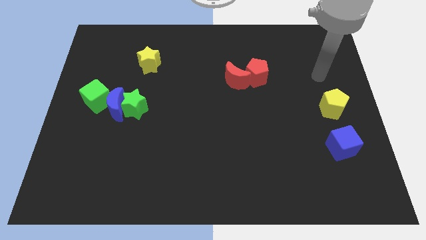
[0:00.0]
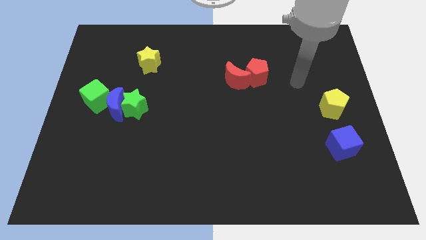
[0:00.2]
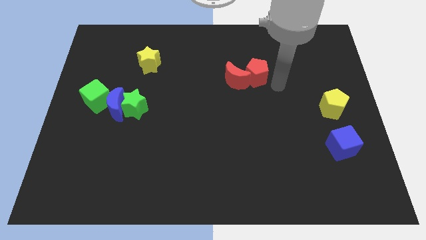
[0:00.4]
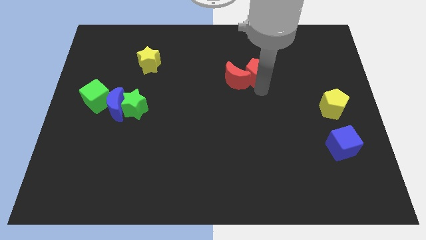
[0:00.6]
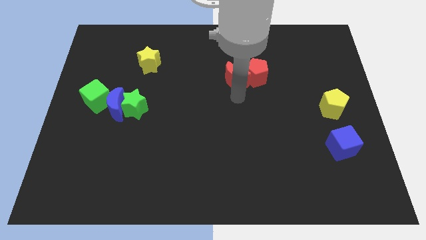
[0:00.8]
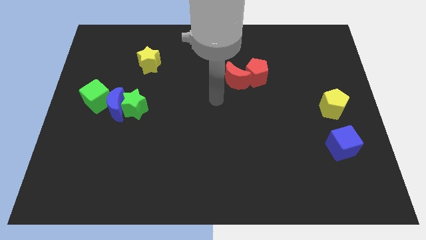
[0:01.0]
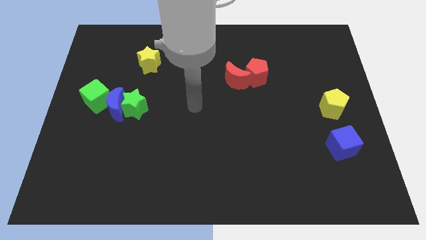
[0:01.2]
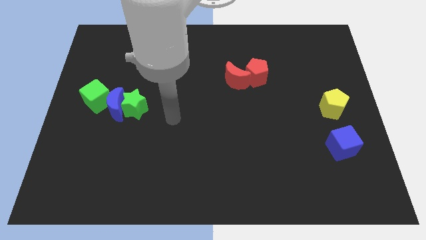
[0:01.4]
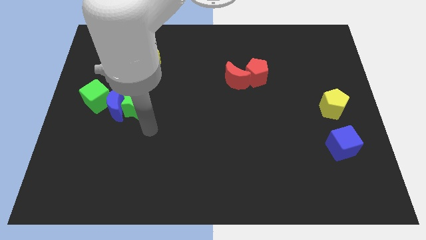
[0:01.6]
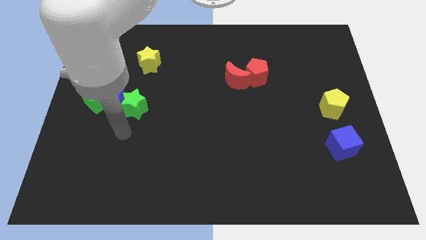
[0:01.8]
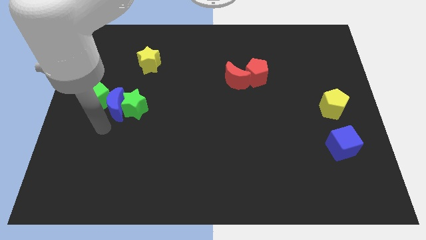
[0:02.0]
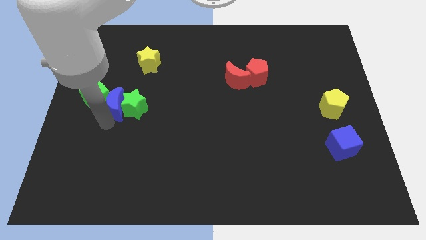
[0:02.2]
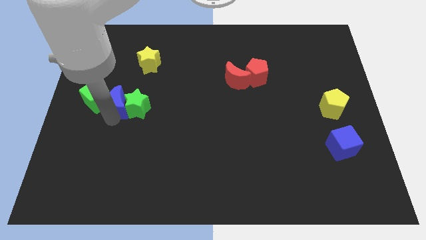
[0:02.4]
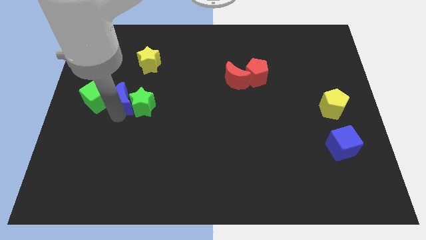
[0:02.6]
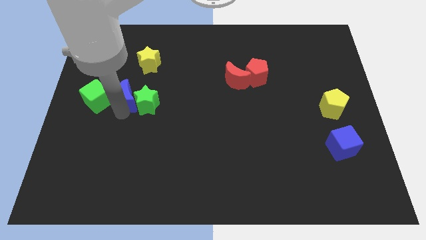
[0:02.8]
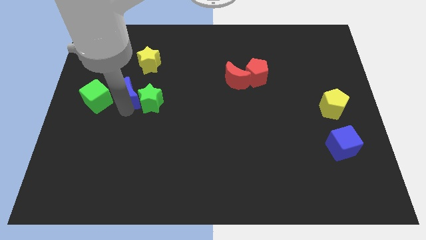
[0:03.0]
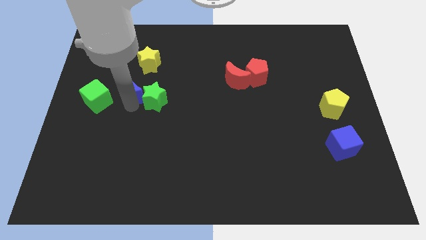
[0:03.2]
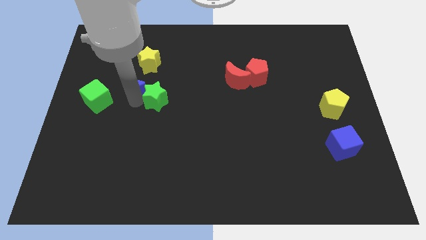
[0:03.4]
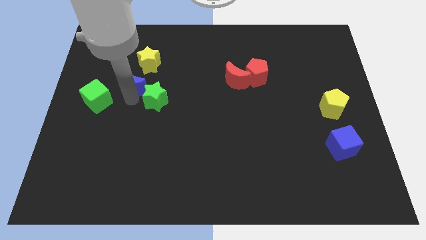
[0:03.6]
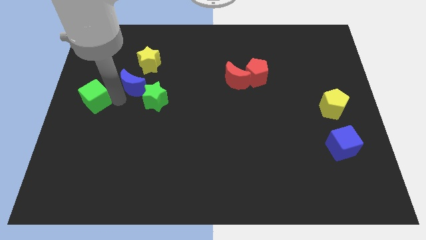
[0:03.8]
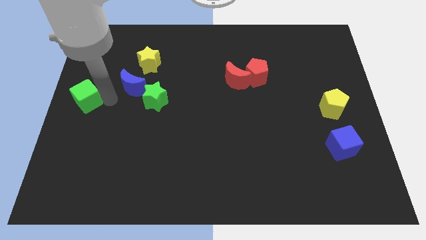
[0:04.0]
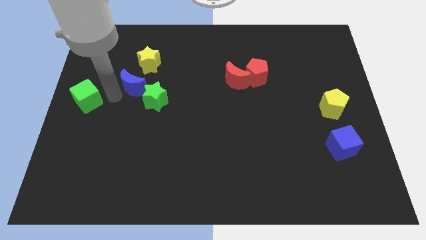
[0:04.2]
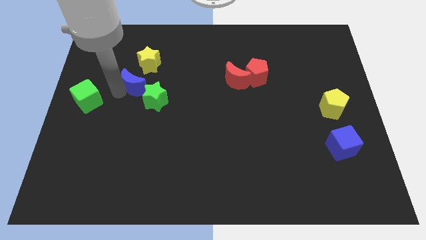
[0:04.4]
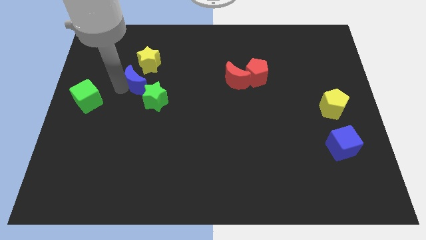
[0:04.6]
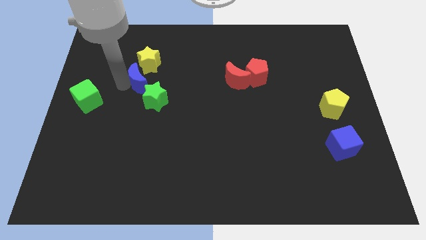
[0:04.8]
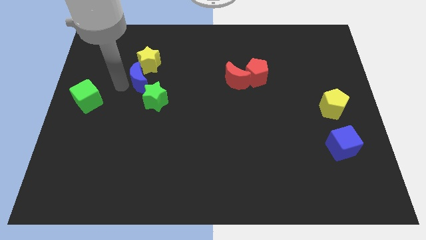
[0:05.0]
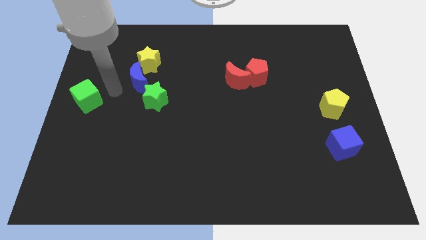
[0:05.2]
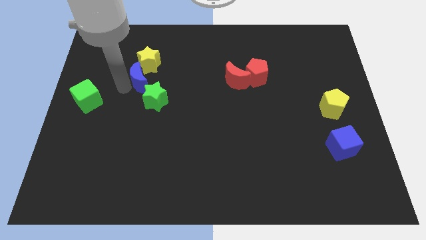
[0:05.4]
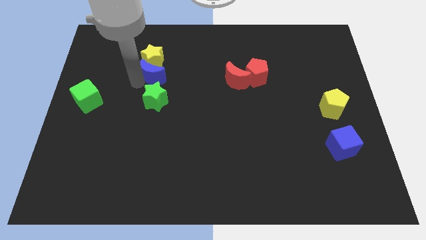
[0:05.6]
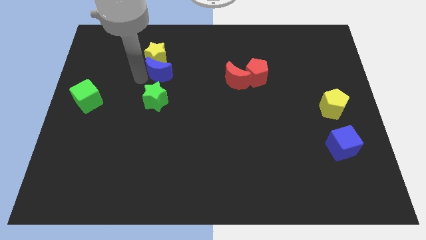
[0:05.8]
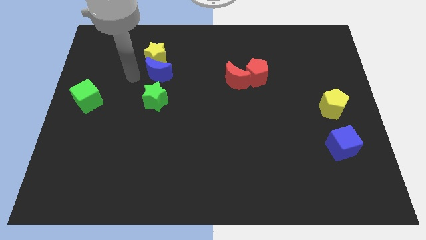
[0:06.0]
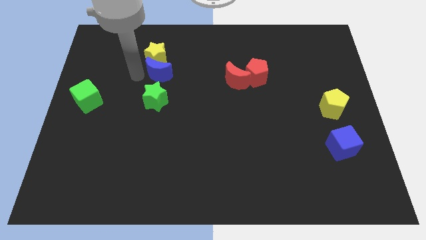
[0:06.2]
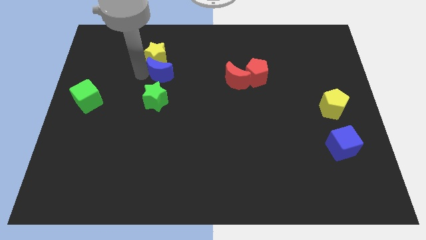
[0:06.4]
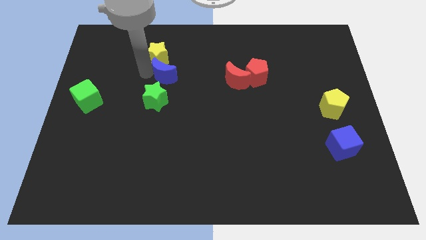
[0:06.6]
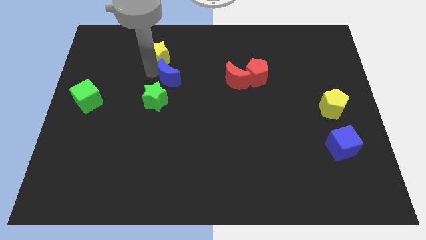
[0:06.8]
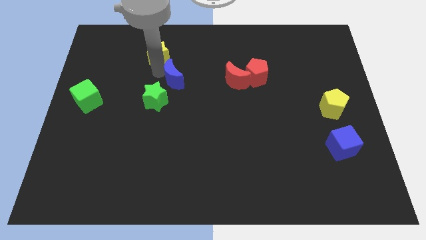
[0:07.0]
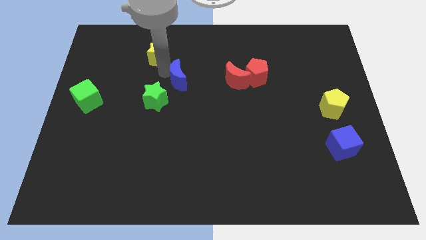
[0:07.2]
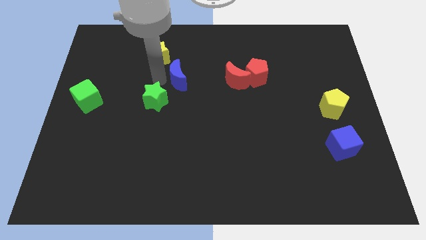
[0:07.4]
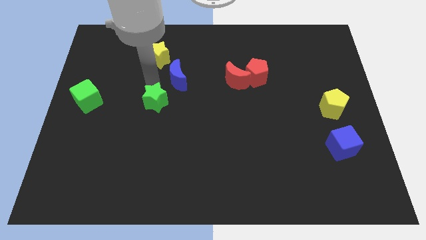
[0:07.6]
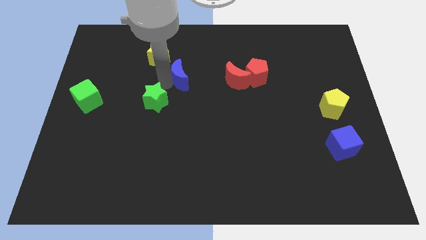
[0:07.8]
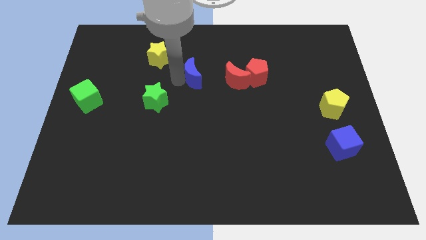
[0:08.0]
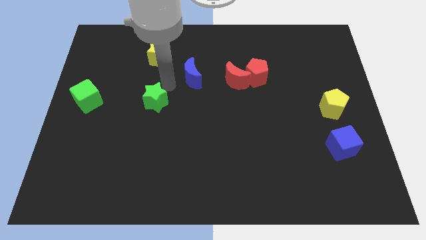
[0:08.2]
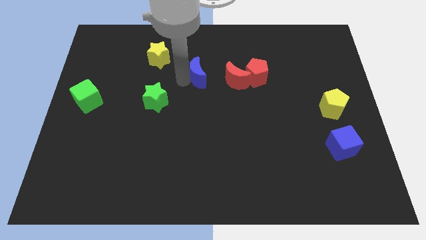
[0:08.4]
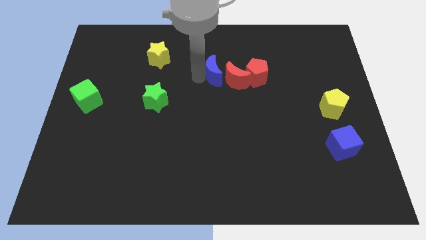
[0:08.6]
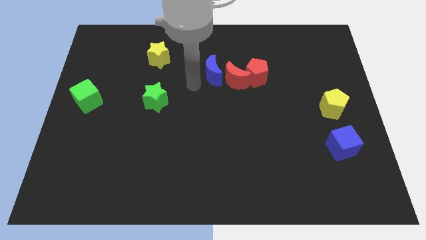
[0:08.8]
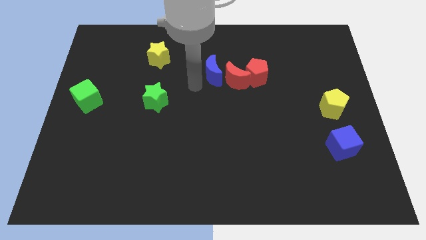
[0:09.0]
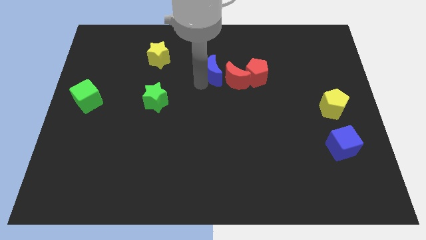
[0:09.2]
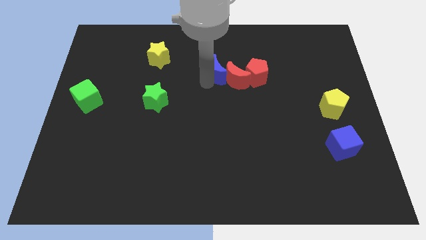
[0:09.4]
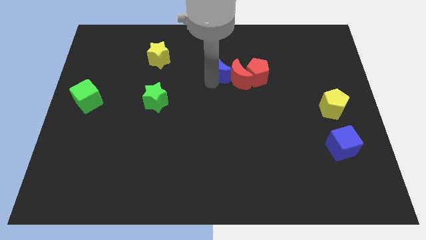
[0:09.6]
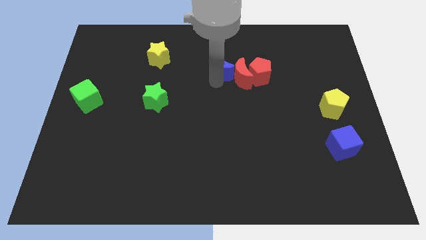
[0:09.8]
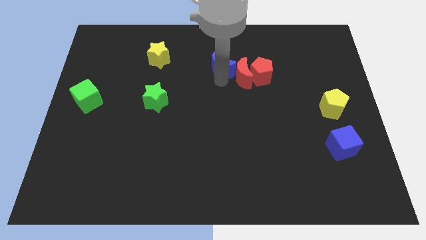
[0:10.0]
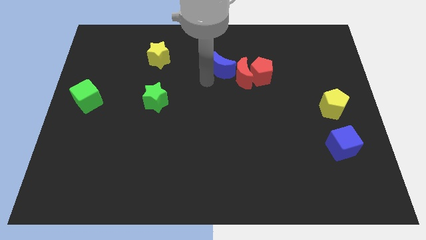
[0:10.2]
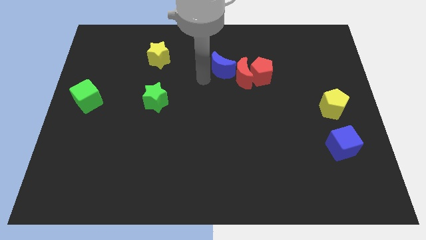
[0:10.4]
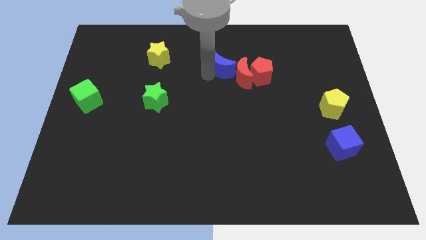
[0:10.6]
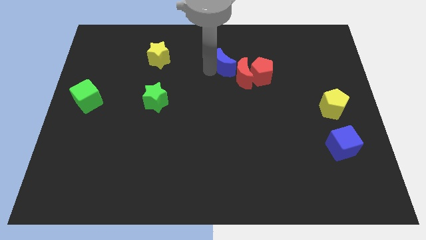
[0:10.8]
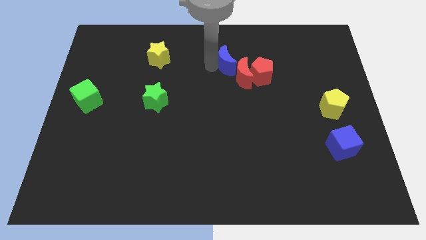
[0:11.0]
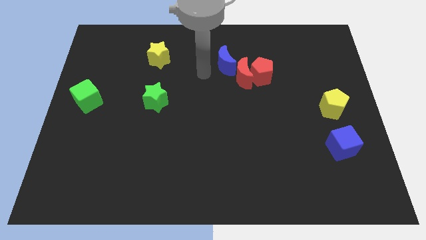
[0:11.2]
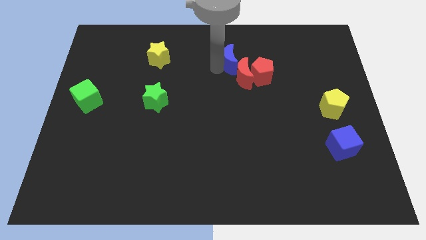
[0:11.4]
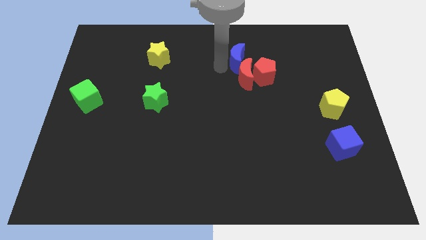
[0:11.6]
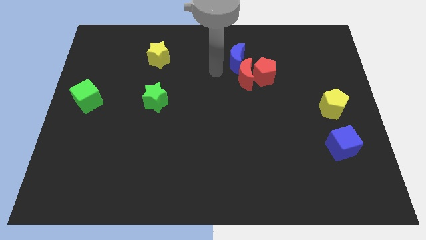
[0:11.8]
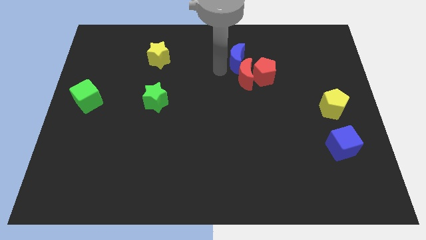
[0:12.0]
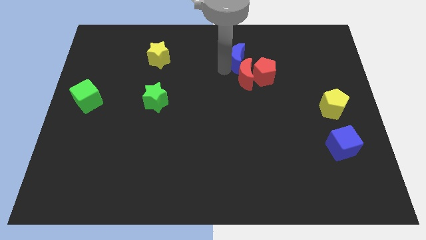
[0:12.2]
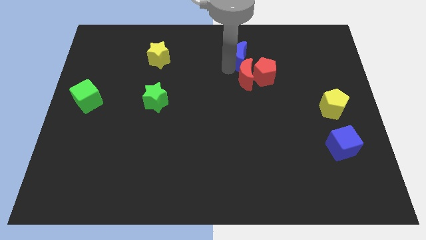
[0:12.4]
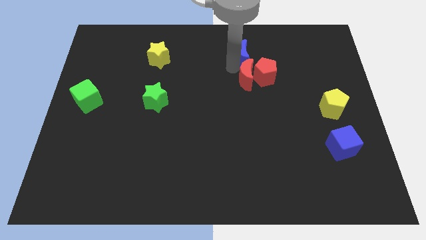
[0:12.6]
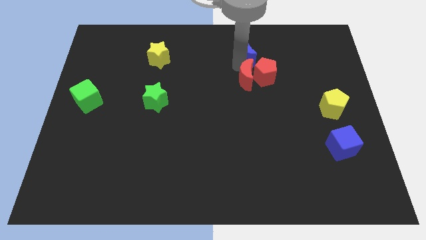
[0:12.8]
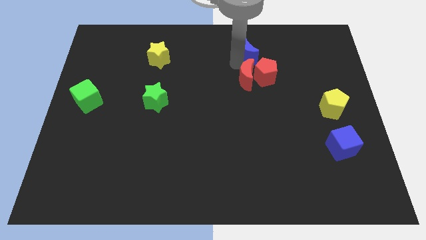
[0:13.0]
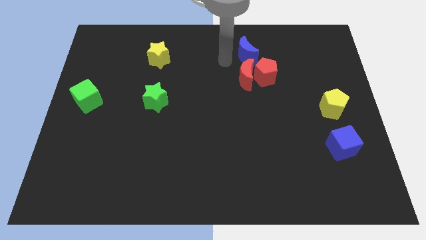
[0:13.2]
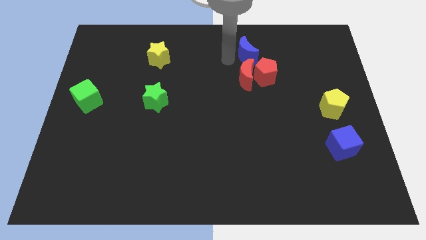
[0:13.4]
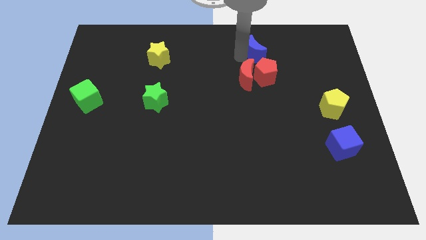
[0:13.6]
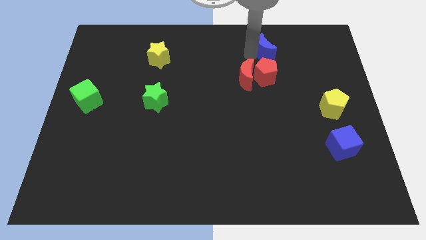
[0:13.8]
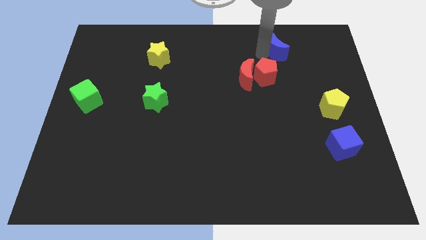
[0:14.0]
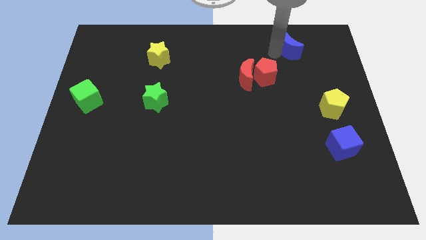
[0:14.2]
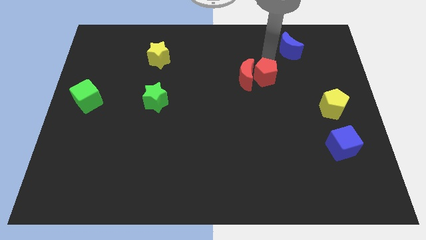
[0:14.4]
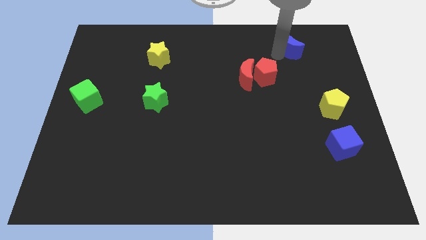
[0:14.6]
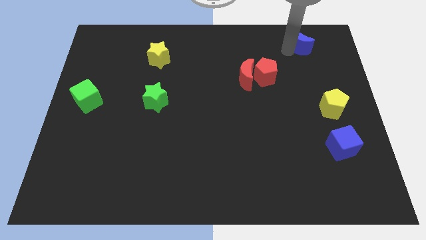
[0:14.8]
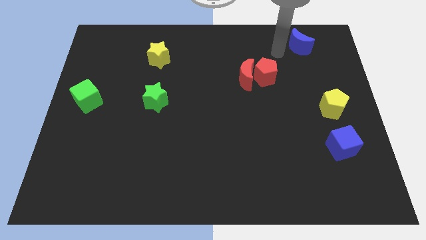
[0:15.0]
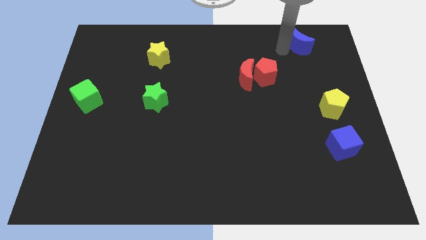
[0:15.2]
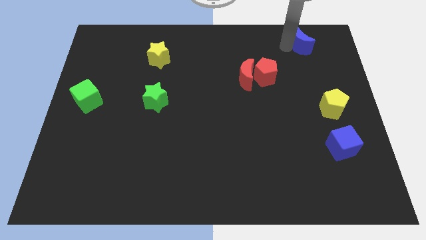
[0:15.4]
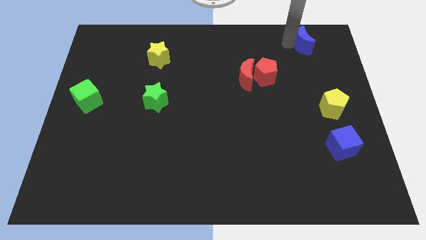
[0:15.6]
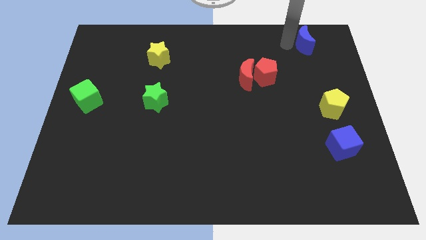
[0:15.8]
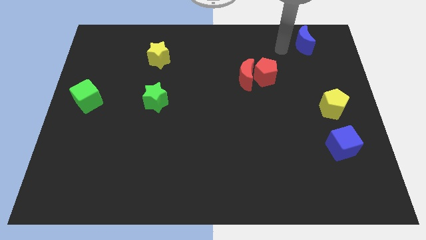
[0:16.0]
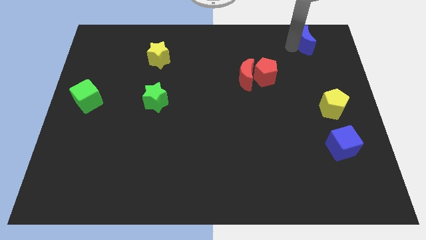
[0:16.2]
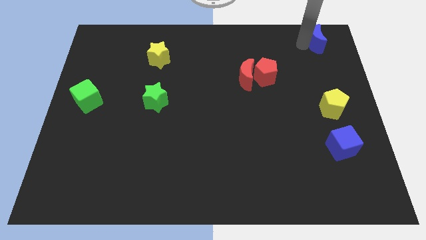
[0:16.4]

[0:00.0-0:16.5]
put the blue moon to the top right corner
